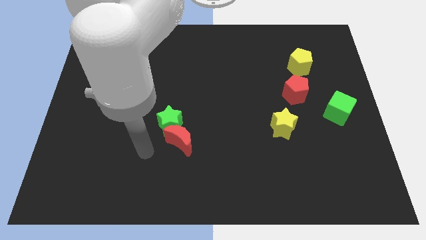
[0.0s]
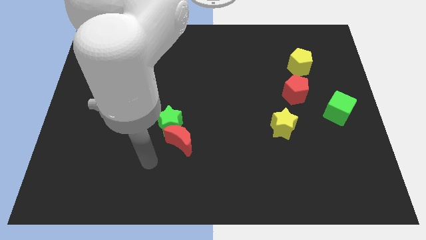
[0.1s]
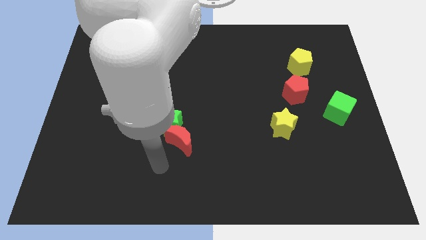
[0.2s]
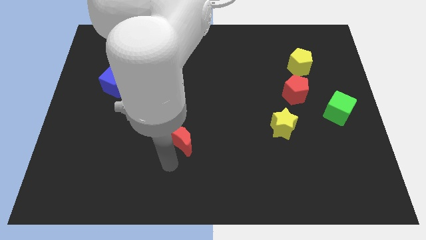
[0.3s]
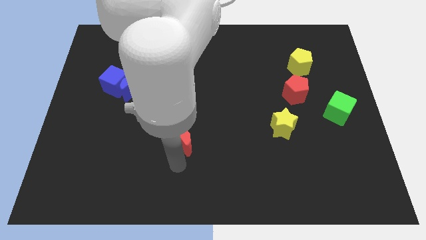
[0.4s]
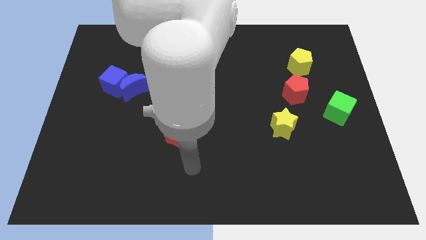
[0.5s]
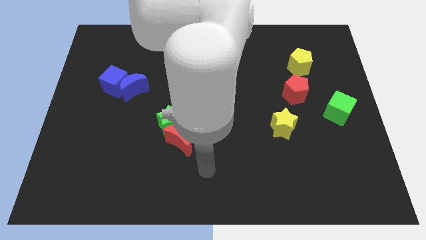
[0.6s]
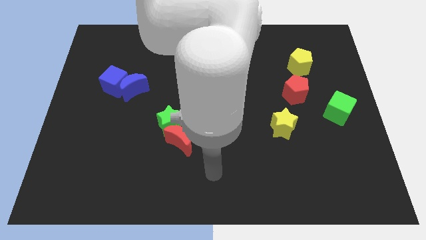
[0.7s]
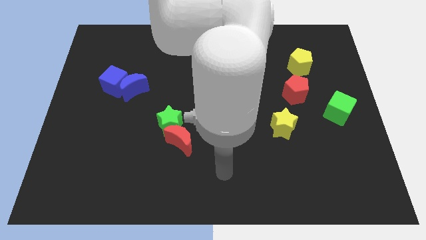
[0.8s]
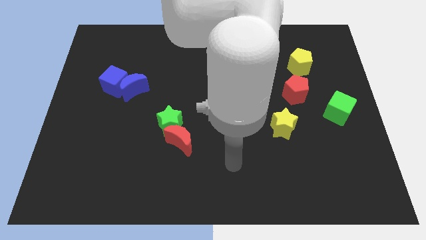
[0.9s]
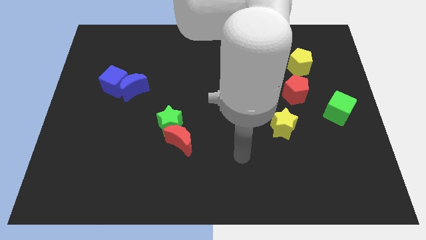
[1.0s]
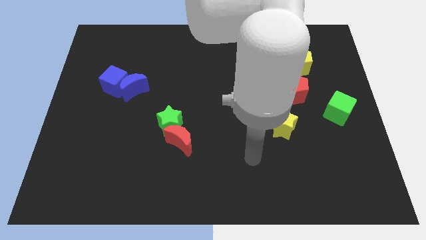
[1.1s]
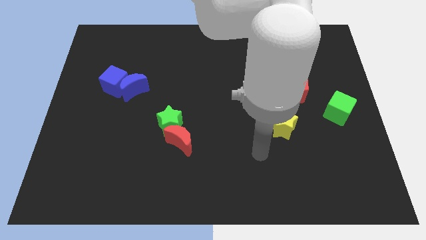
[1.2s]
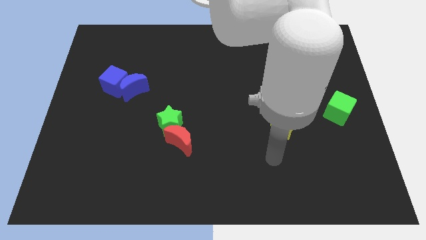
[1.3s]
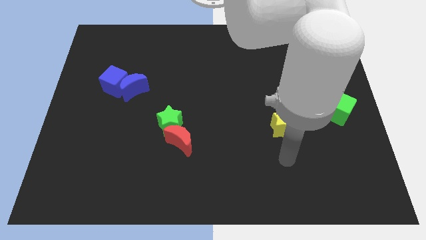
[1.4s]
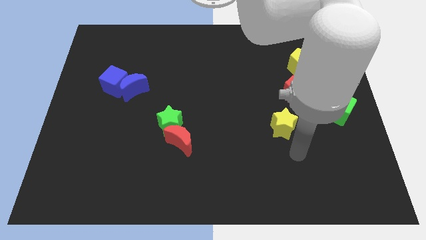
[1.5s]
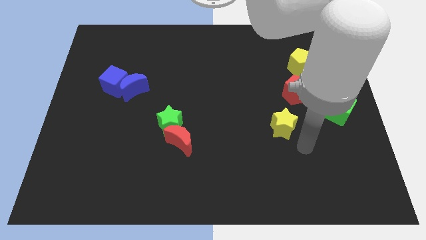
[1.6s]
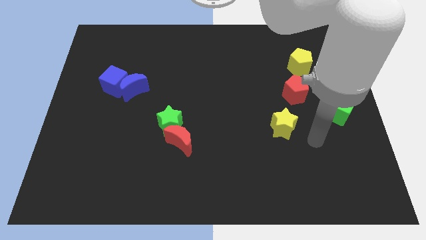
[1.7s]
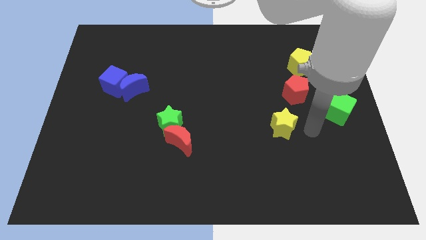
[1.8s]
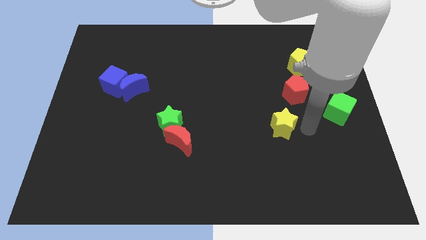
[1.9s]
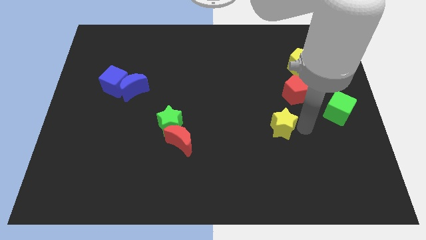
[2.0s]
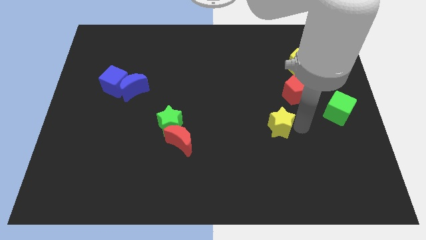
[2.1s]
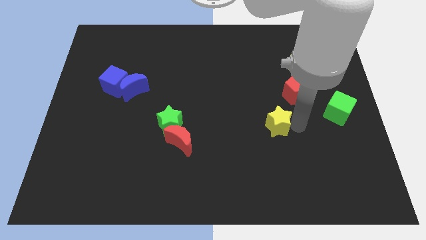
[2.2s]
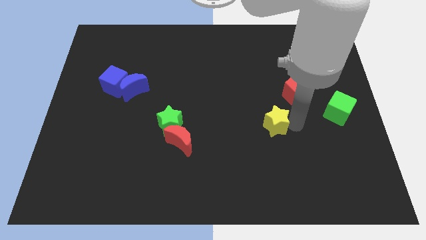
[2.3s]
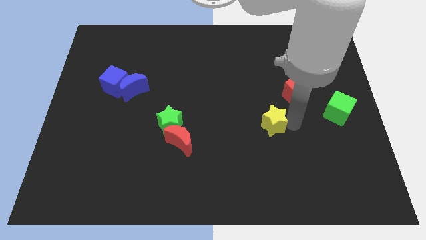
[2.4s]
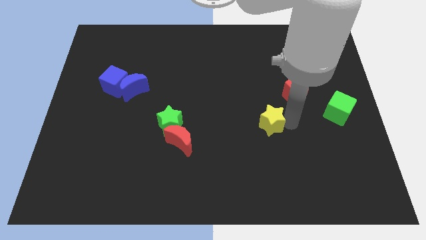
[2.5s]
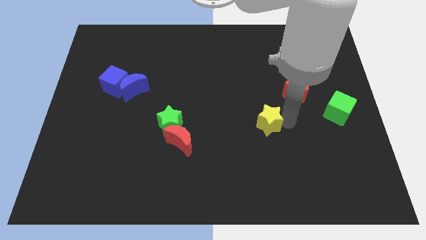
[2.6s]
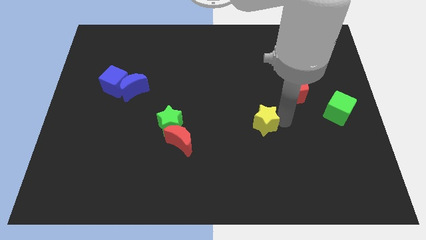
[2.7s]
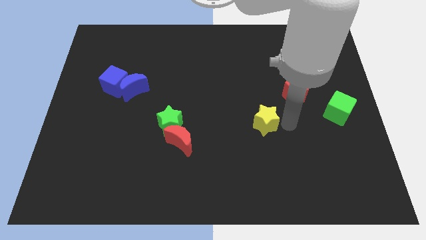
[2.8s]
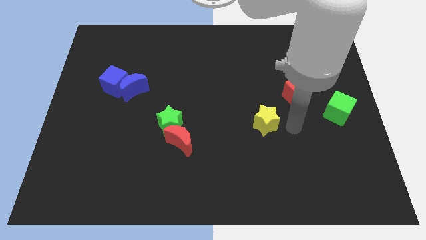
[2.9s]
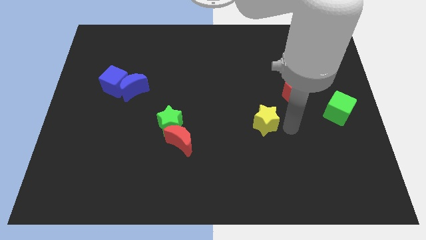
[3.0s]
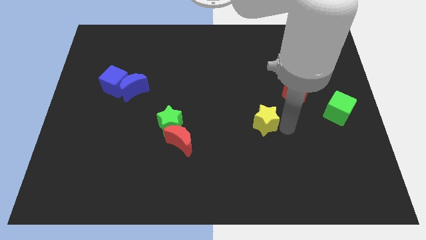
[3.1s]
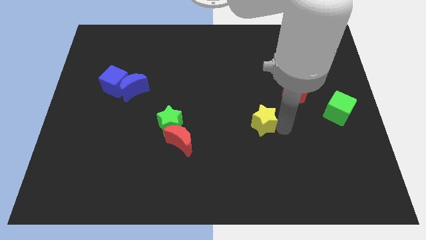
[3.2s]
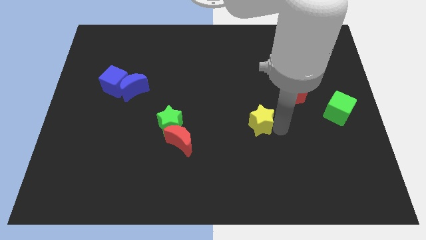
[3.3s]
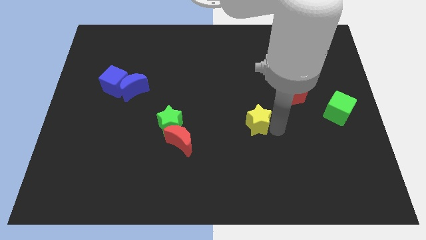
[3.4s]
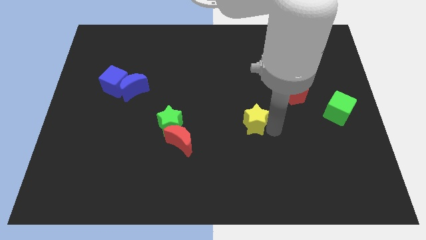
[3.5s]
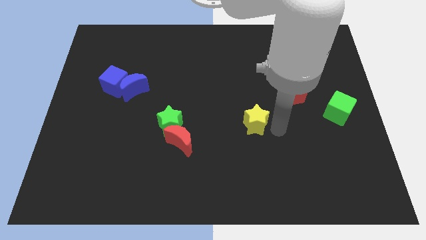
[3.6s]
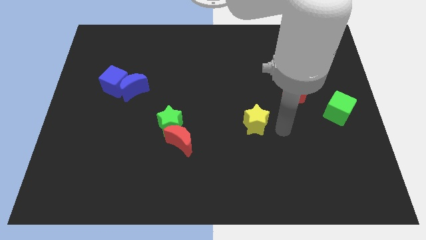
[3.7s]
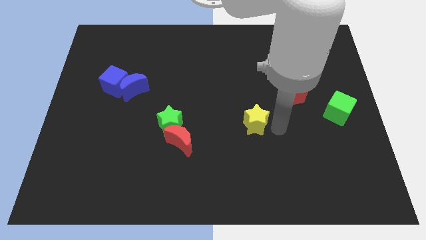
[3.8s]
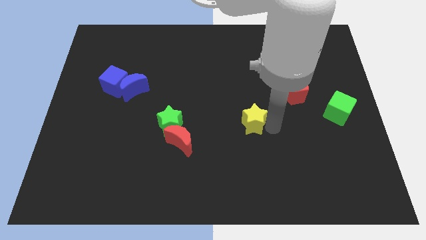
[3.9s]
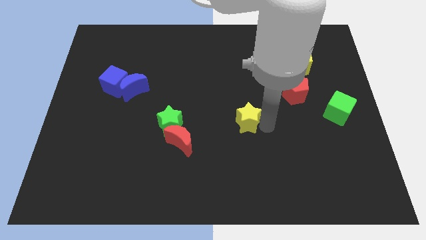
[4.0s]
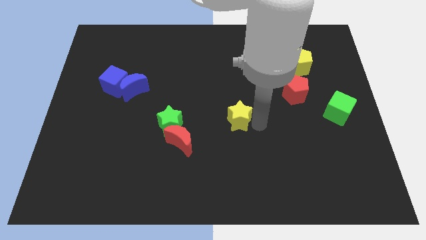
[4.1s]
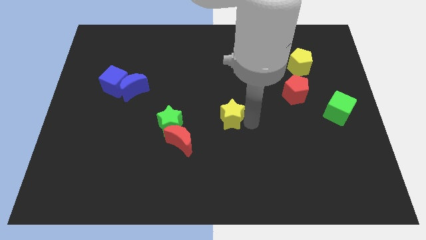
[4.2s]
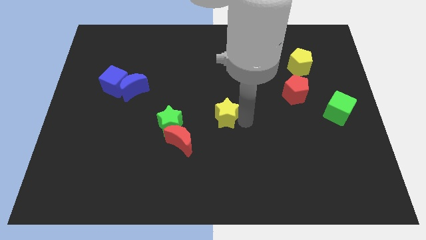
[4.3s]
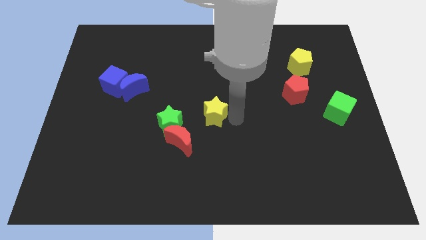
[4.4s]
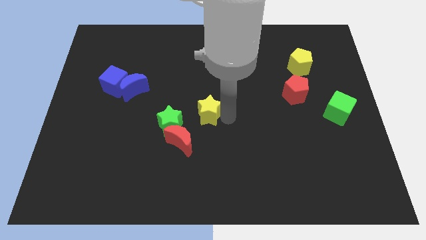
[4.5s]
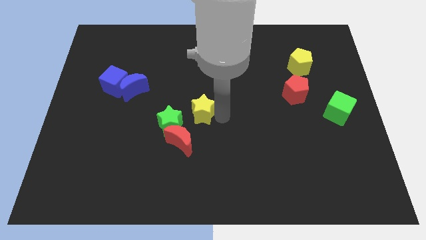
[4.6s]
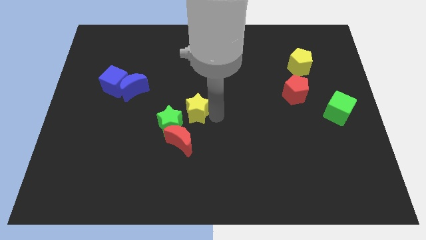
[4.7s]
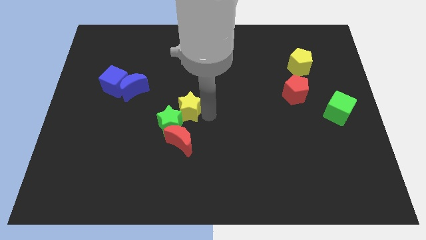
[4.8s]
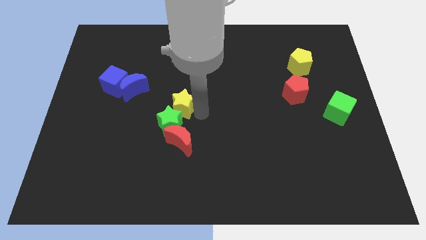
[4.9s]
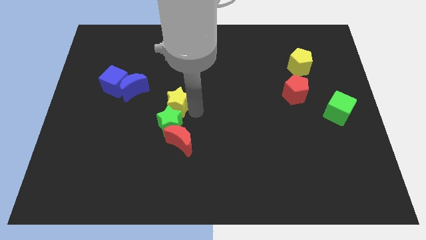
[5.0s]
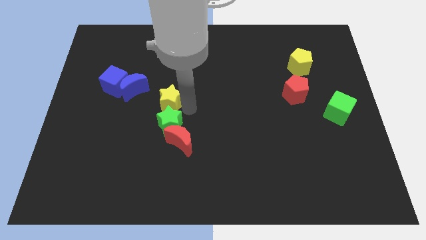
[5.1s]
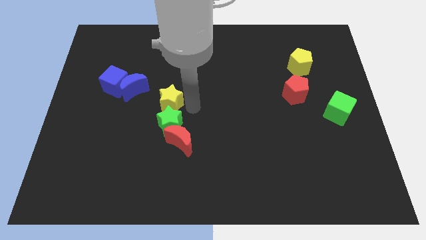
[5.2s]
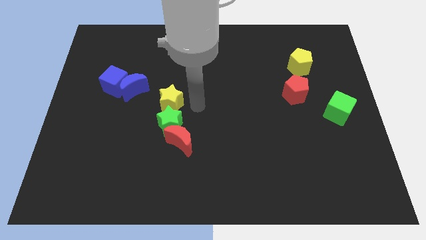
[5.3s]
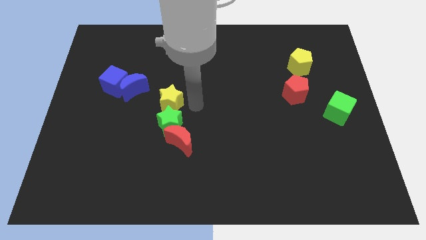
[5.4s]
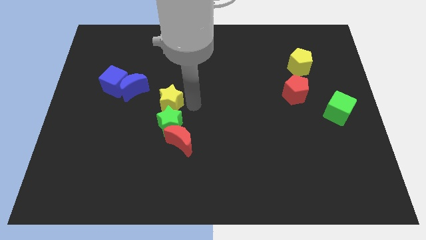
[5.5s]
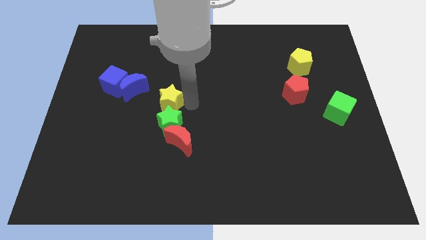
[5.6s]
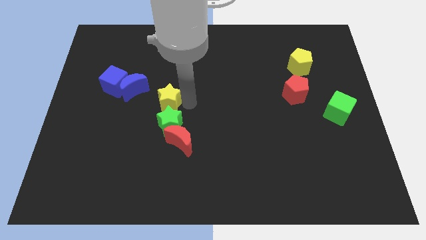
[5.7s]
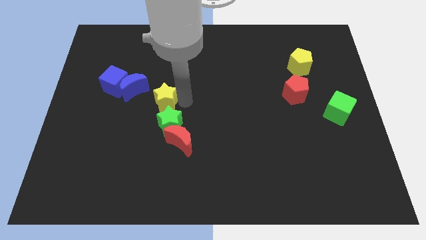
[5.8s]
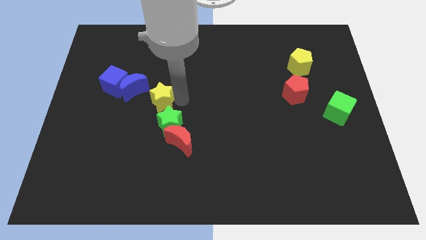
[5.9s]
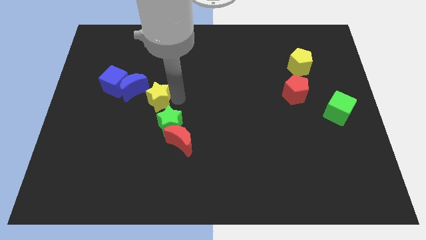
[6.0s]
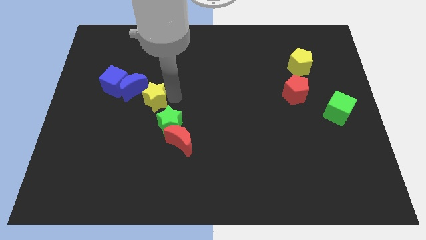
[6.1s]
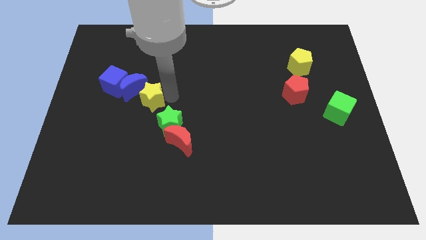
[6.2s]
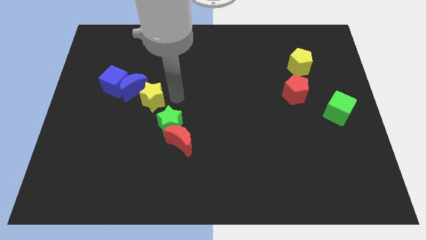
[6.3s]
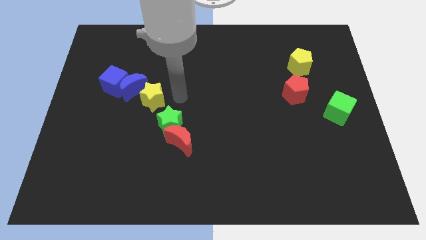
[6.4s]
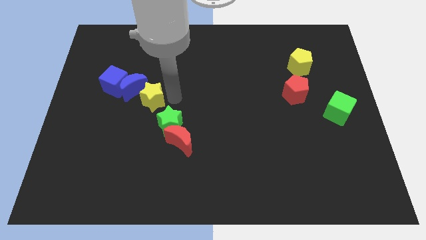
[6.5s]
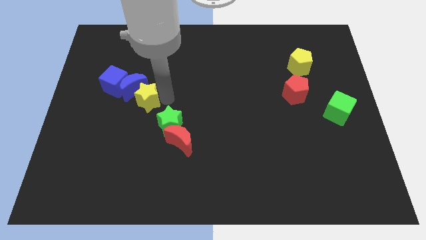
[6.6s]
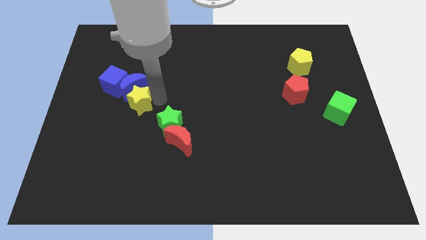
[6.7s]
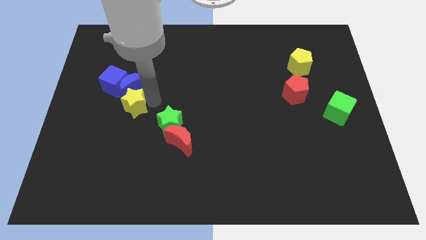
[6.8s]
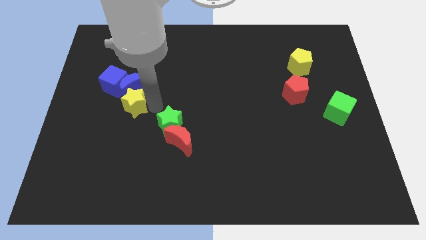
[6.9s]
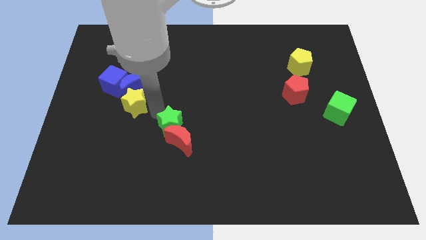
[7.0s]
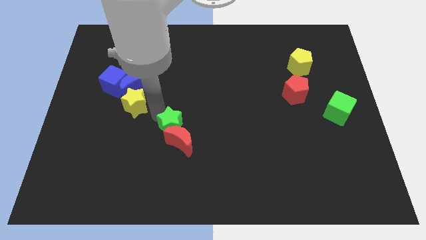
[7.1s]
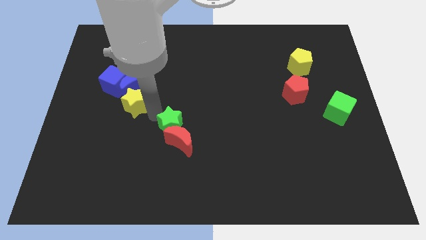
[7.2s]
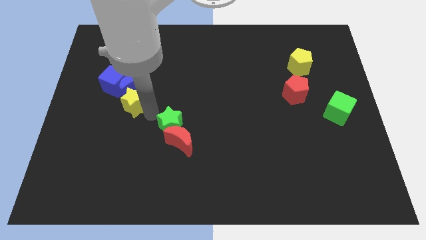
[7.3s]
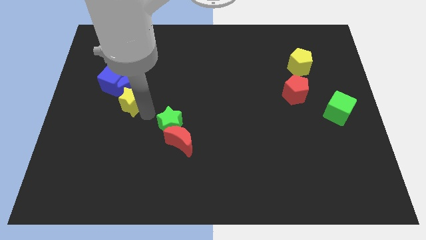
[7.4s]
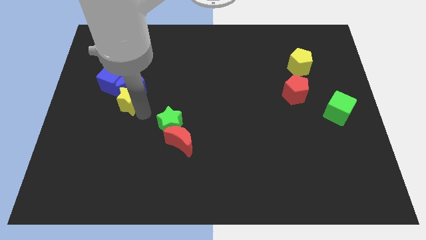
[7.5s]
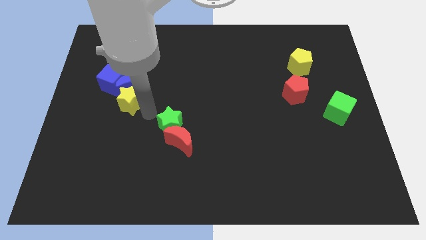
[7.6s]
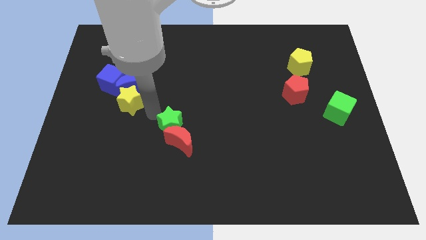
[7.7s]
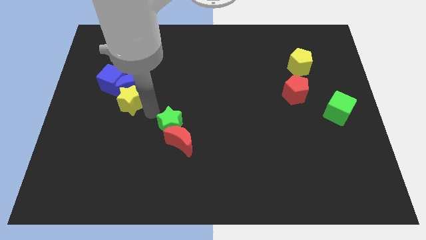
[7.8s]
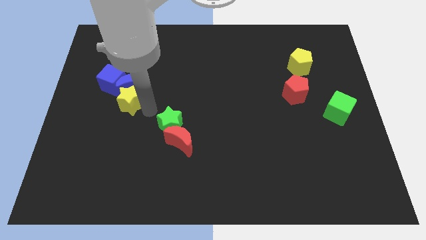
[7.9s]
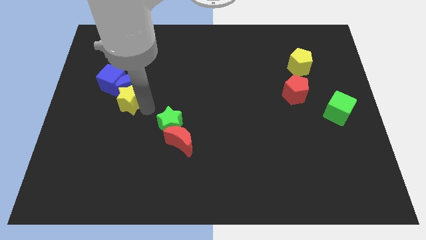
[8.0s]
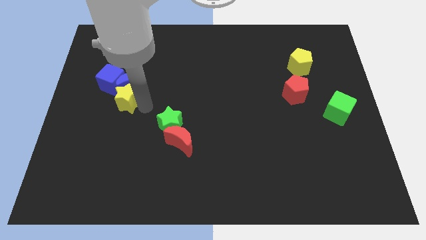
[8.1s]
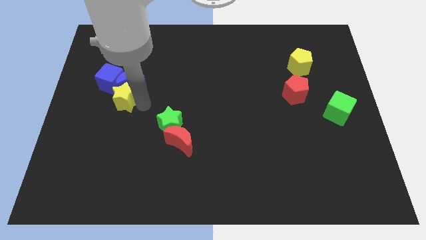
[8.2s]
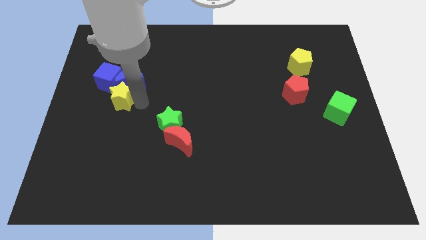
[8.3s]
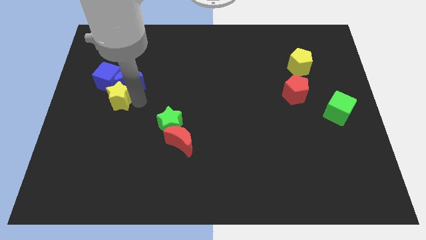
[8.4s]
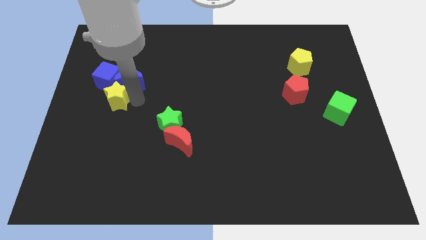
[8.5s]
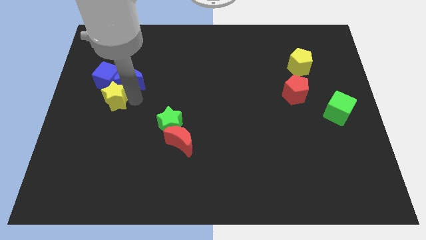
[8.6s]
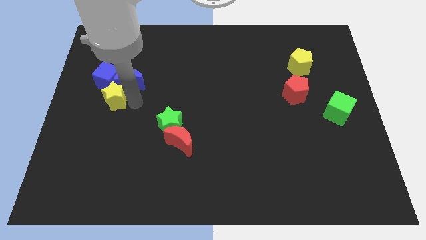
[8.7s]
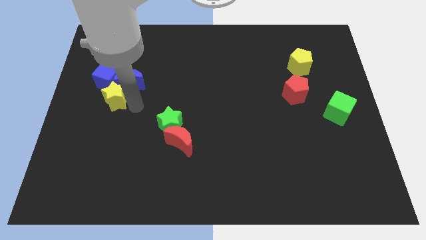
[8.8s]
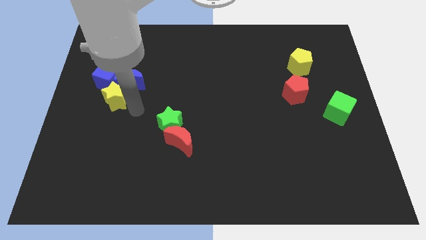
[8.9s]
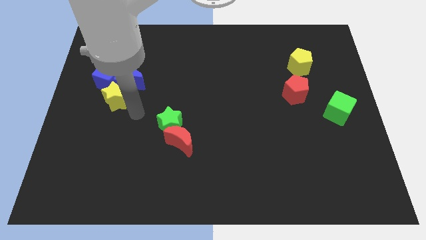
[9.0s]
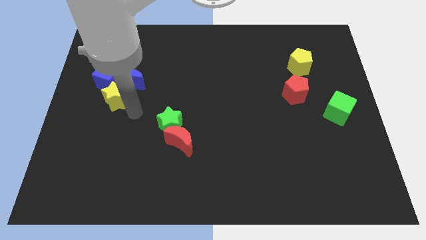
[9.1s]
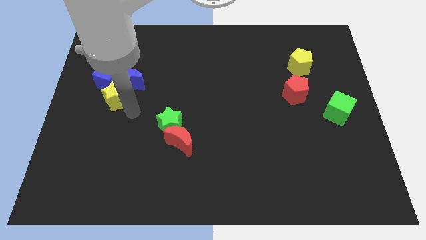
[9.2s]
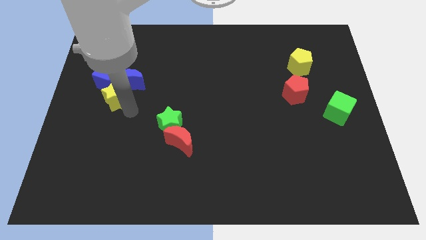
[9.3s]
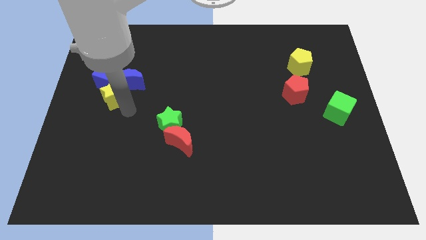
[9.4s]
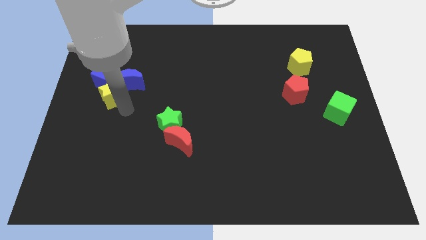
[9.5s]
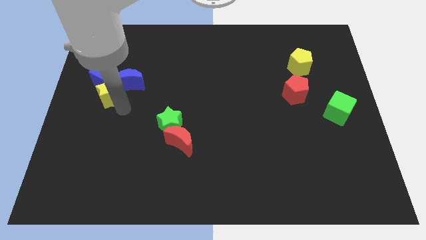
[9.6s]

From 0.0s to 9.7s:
put the yellow star close to the blue cube
